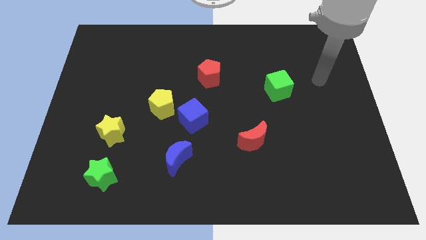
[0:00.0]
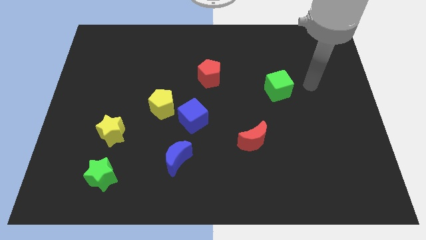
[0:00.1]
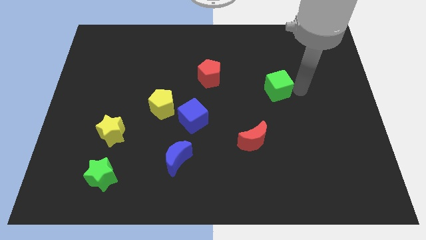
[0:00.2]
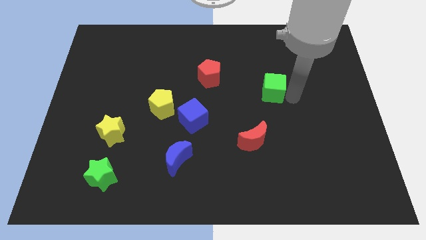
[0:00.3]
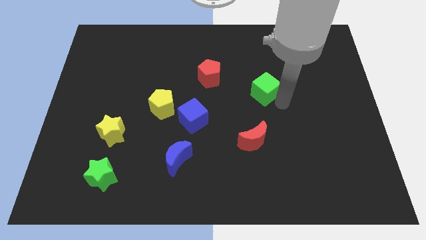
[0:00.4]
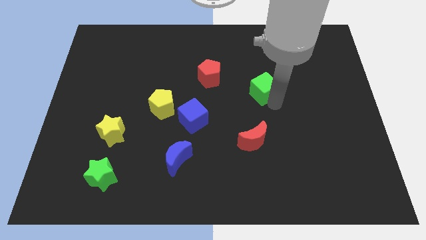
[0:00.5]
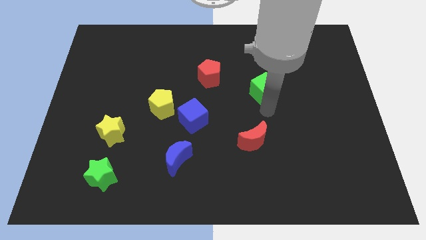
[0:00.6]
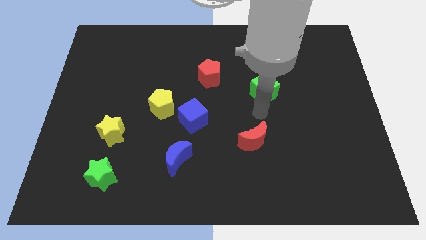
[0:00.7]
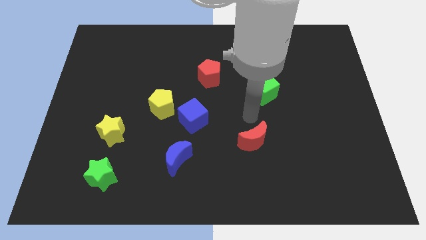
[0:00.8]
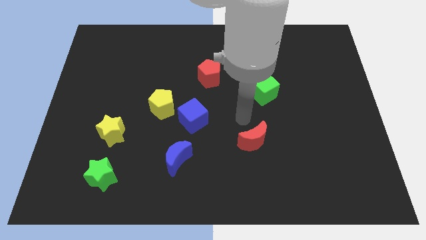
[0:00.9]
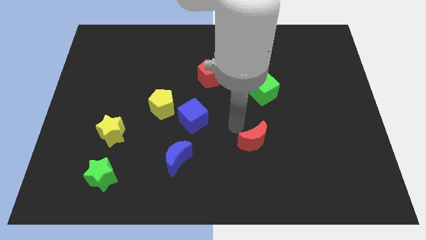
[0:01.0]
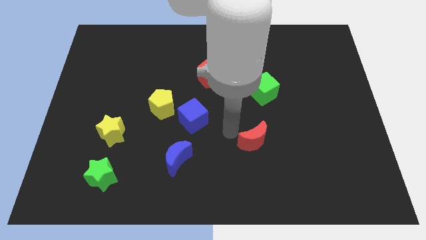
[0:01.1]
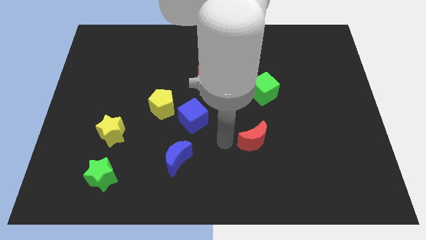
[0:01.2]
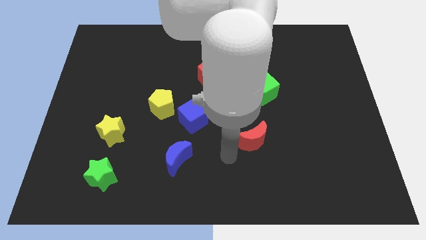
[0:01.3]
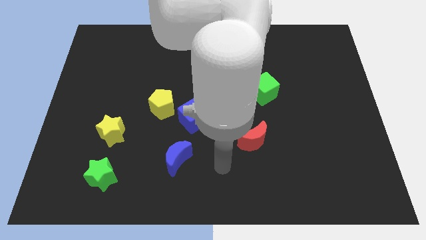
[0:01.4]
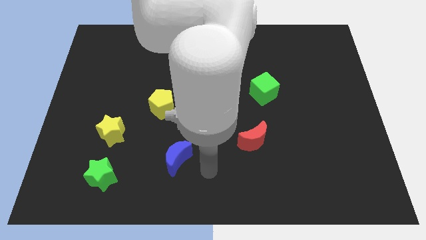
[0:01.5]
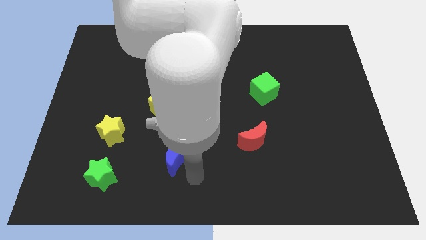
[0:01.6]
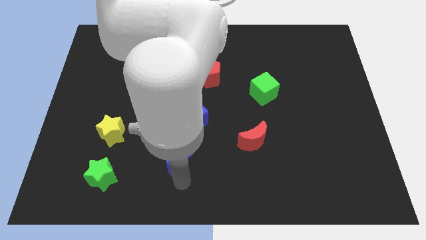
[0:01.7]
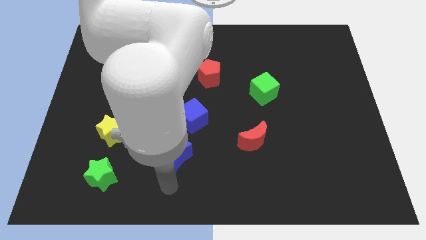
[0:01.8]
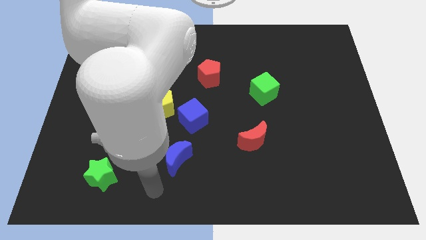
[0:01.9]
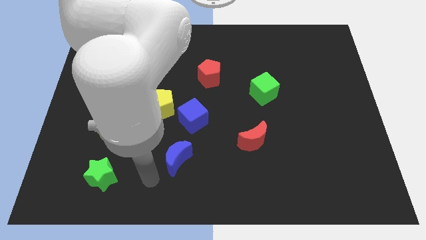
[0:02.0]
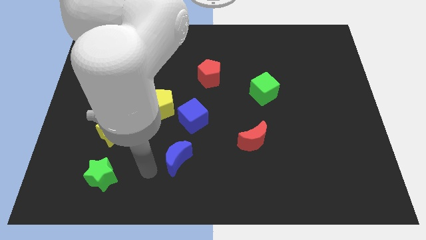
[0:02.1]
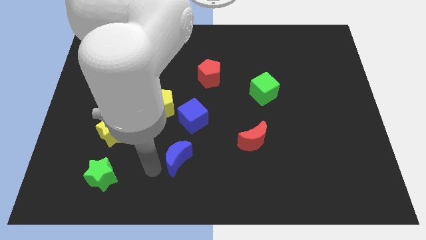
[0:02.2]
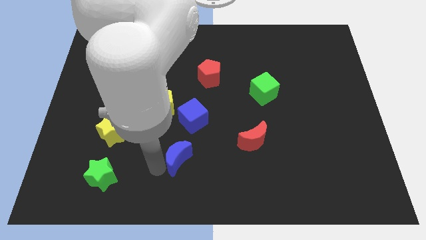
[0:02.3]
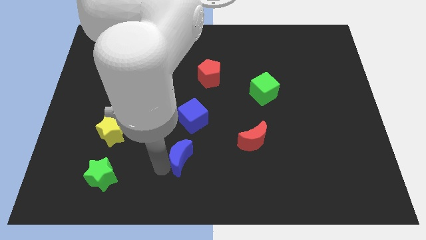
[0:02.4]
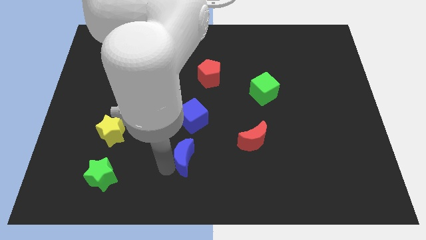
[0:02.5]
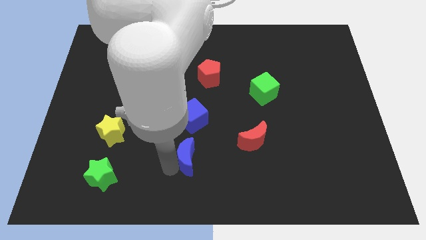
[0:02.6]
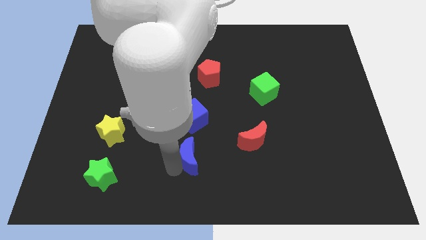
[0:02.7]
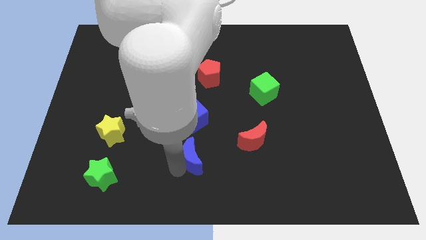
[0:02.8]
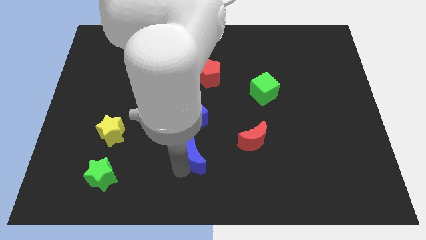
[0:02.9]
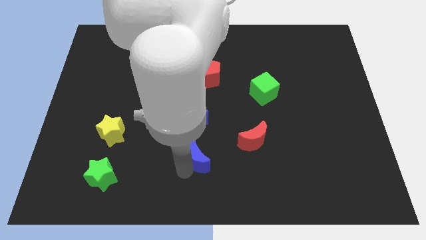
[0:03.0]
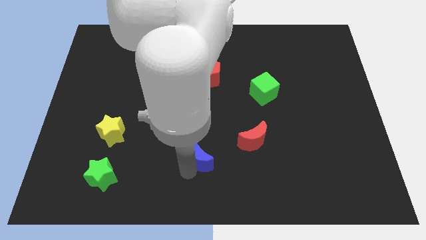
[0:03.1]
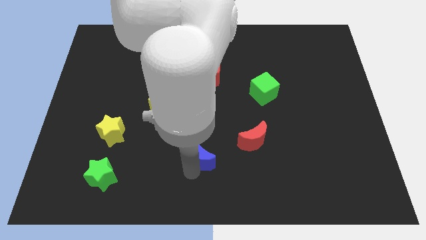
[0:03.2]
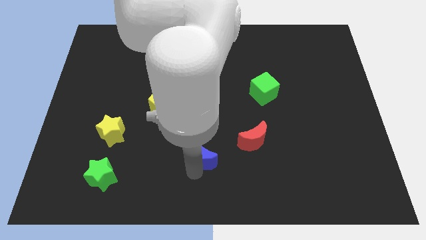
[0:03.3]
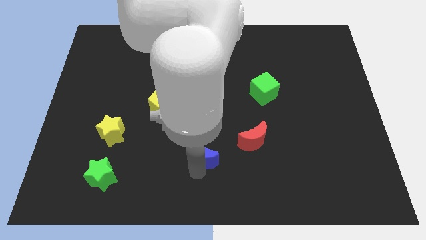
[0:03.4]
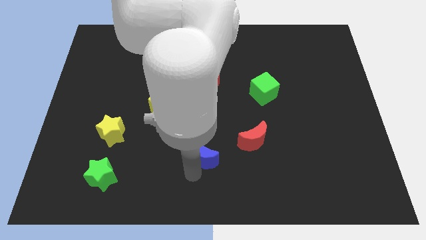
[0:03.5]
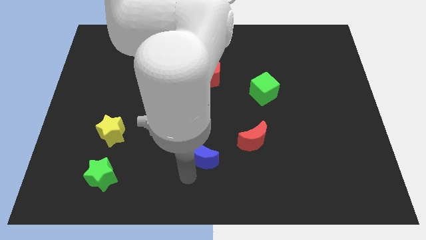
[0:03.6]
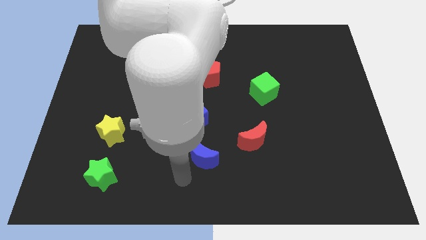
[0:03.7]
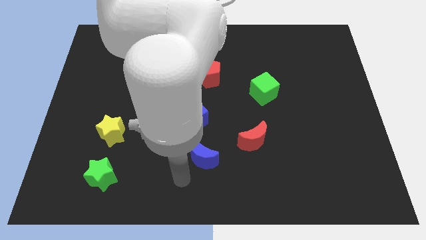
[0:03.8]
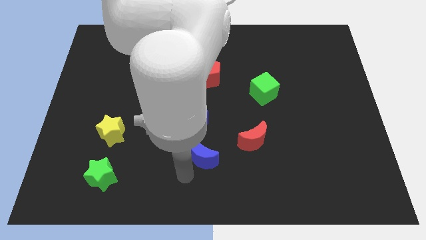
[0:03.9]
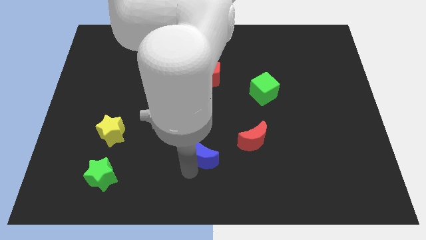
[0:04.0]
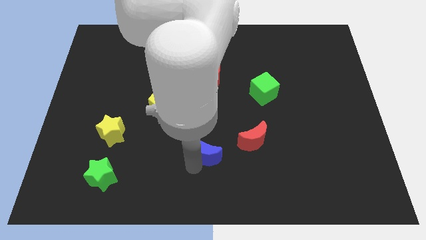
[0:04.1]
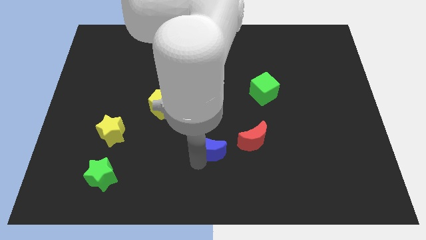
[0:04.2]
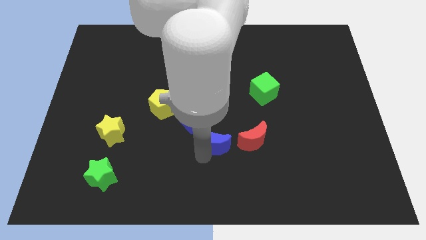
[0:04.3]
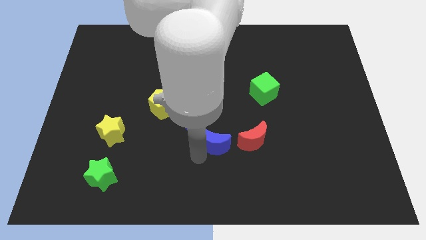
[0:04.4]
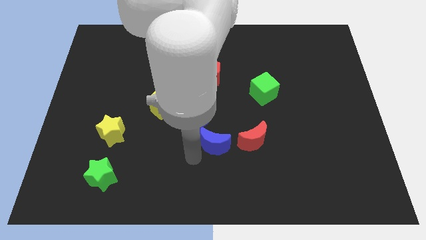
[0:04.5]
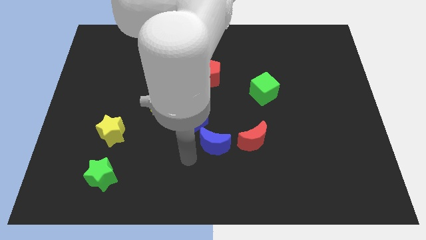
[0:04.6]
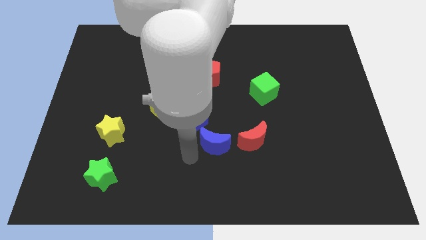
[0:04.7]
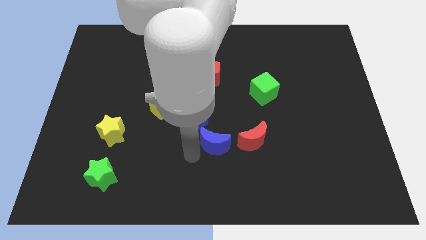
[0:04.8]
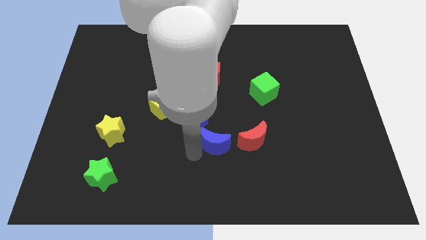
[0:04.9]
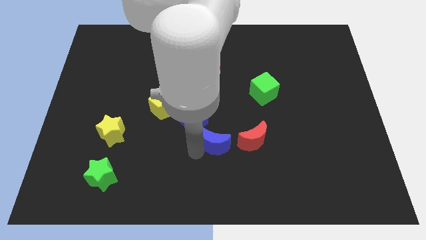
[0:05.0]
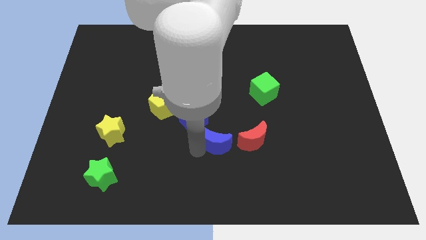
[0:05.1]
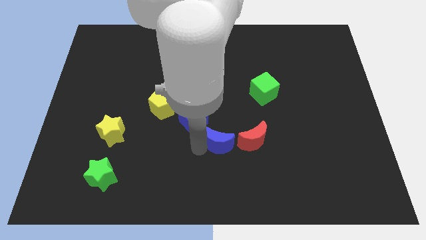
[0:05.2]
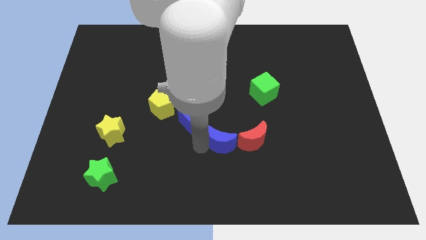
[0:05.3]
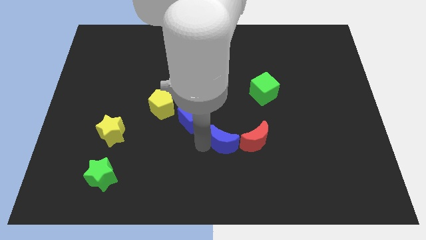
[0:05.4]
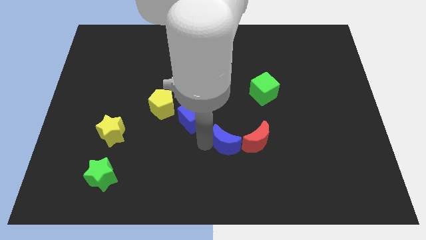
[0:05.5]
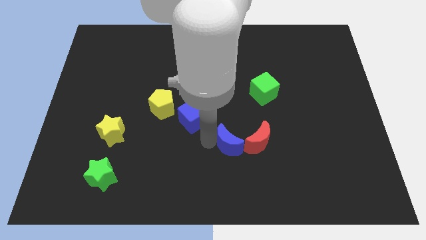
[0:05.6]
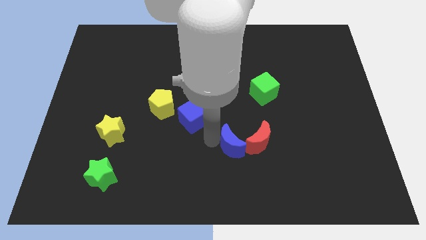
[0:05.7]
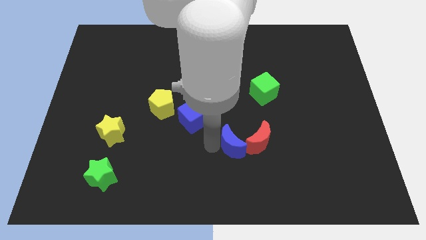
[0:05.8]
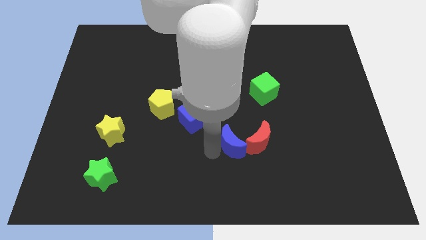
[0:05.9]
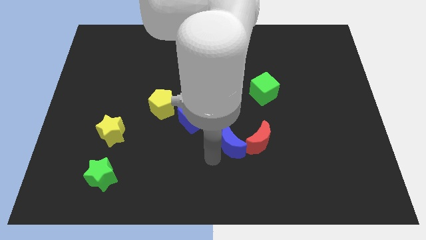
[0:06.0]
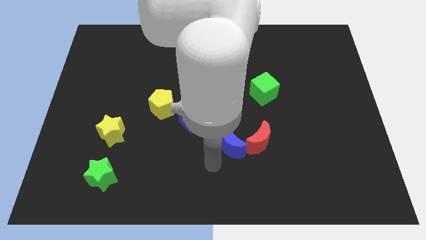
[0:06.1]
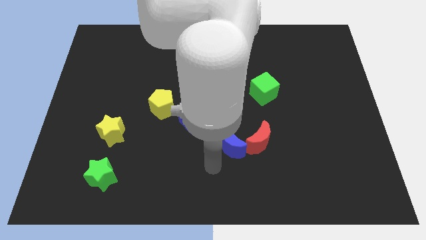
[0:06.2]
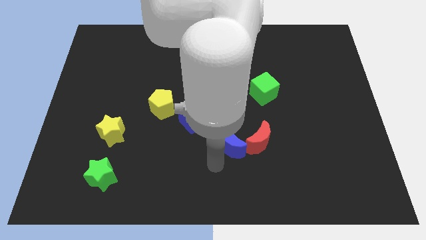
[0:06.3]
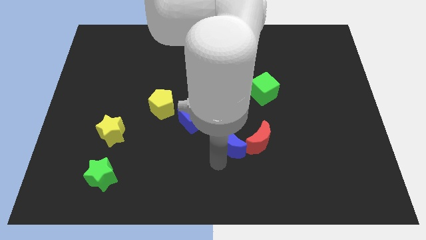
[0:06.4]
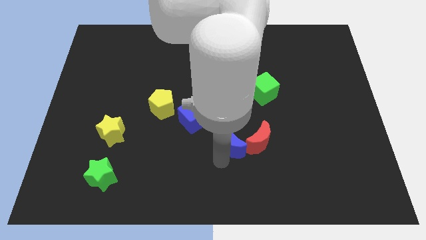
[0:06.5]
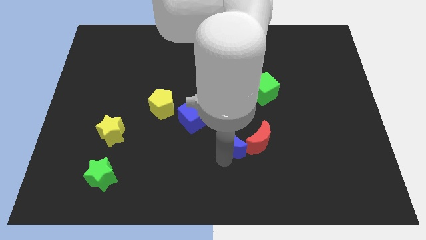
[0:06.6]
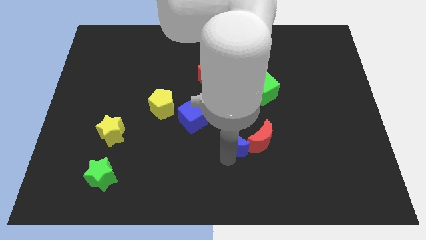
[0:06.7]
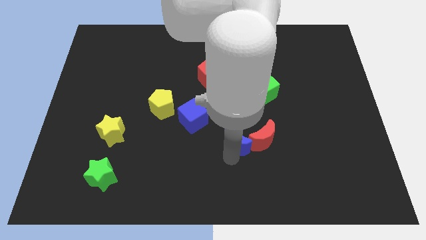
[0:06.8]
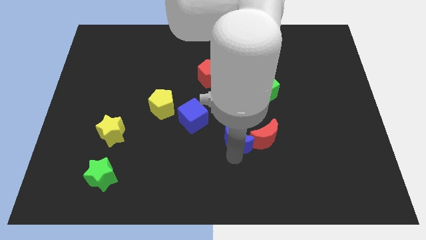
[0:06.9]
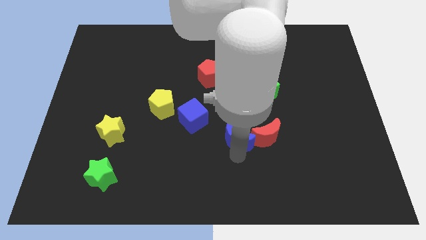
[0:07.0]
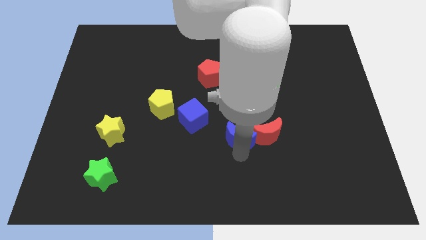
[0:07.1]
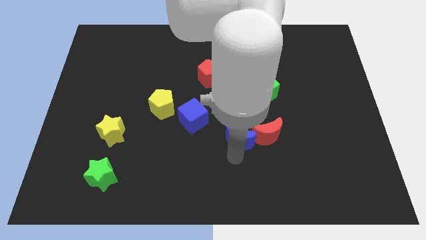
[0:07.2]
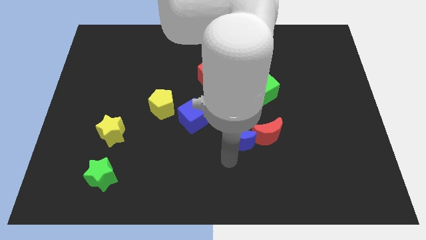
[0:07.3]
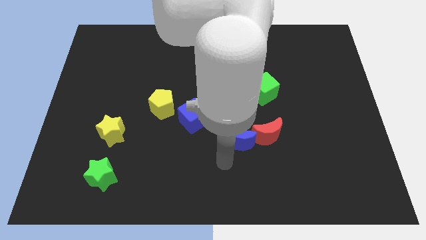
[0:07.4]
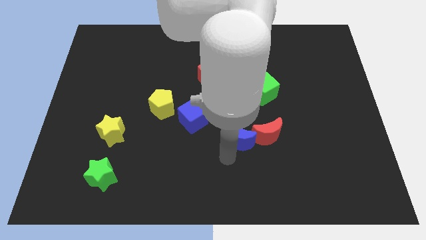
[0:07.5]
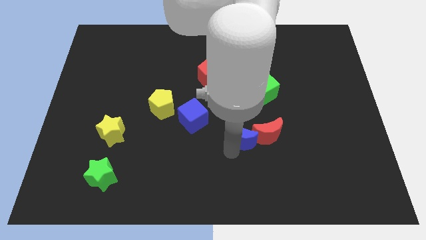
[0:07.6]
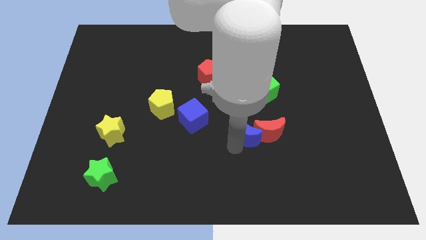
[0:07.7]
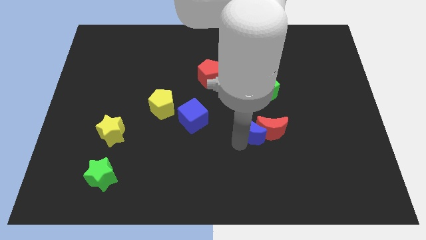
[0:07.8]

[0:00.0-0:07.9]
slide the blue moon to the bottom of the green cube

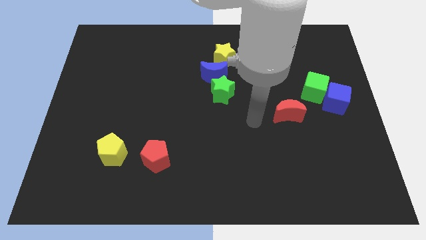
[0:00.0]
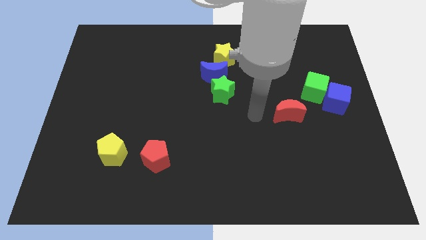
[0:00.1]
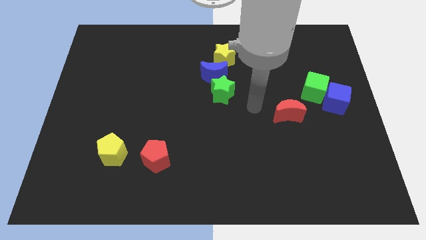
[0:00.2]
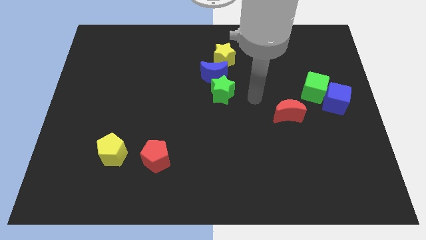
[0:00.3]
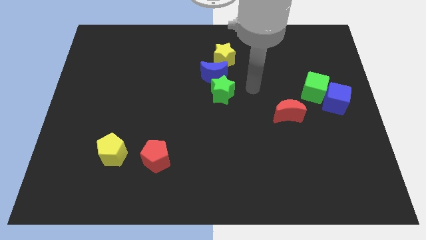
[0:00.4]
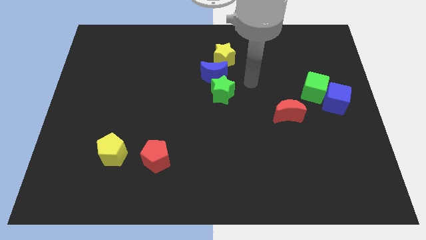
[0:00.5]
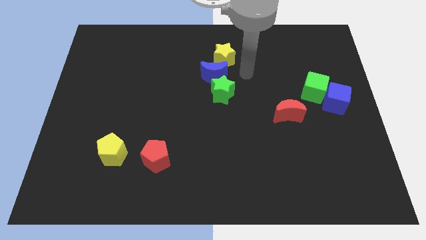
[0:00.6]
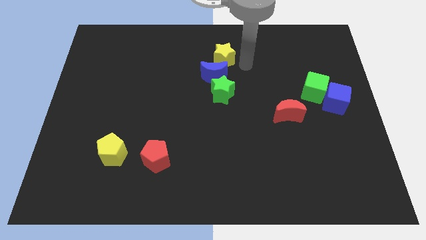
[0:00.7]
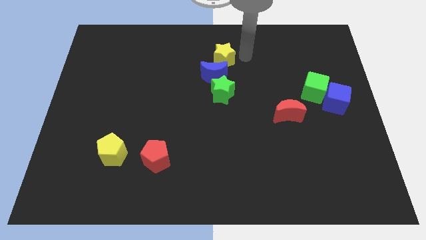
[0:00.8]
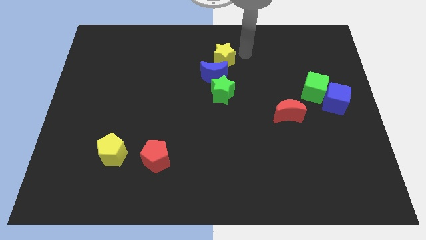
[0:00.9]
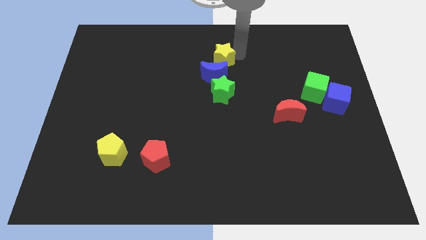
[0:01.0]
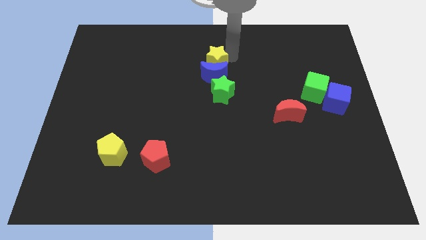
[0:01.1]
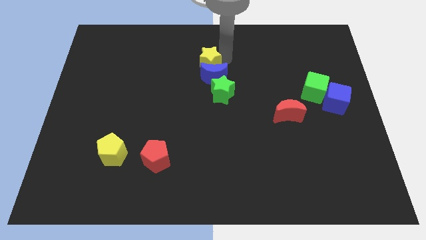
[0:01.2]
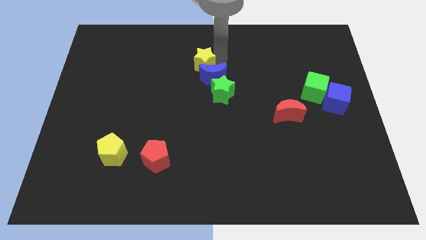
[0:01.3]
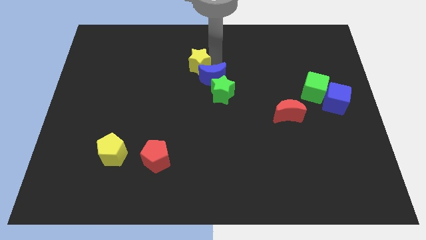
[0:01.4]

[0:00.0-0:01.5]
slide the yellow star just left of the blue moon
